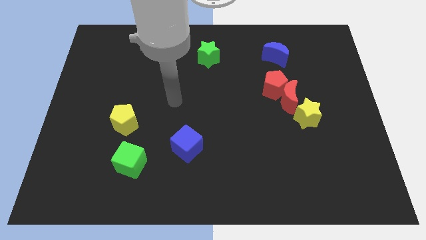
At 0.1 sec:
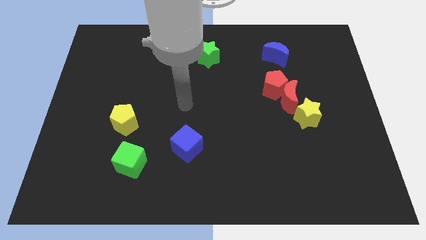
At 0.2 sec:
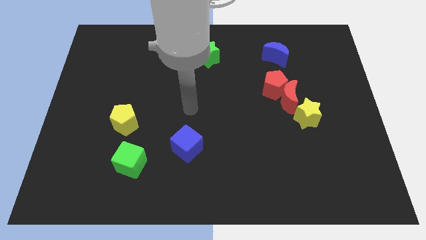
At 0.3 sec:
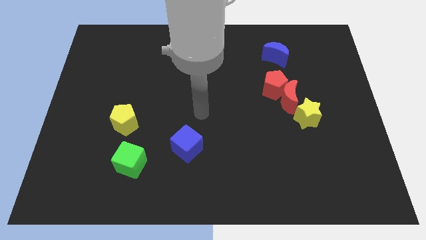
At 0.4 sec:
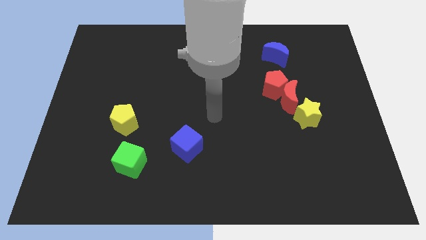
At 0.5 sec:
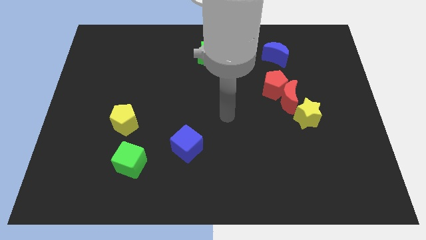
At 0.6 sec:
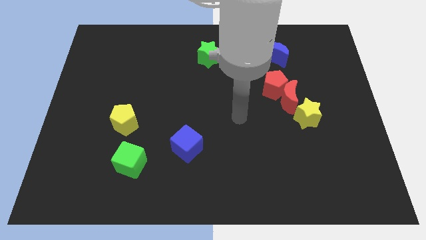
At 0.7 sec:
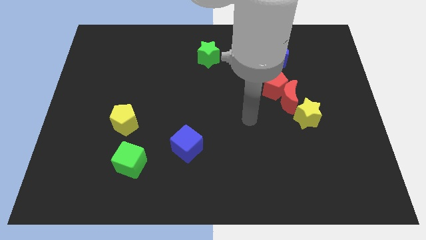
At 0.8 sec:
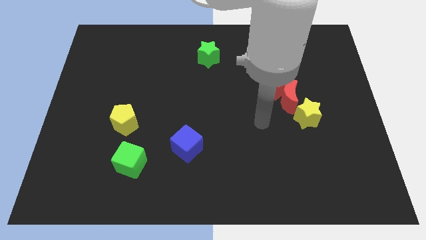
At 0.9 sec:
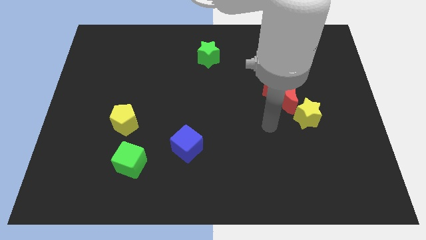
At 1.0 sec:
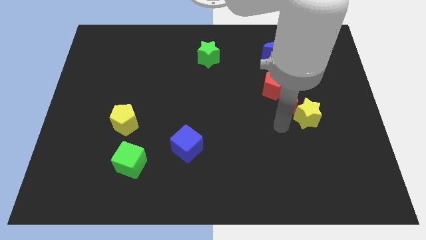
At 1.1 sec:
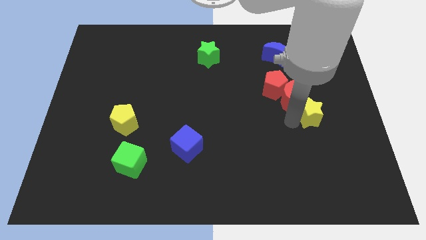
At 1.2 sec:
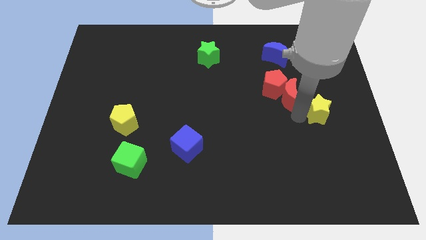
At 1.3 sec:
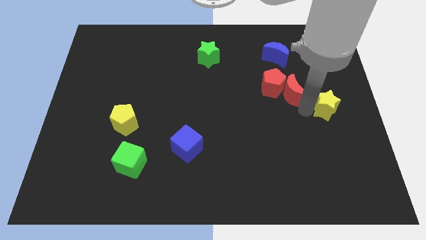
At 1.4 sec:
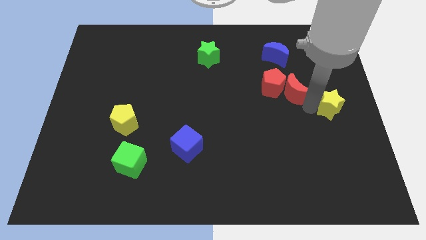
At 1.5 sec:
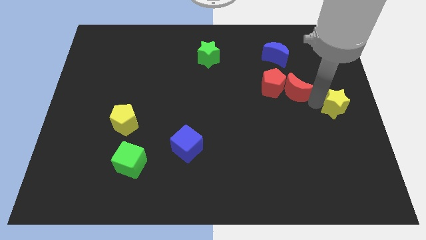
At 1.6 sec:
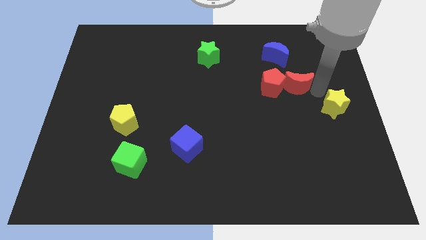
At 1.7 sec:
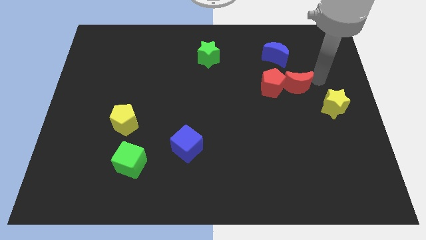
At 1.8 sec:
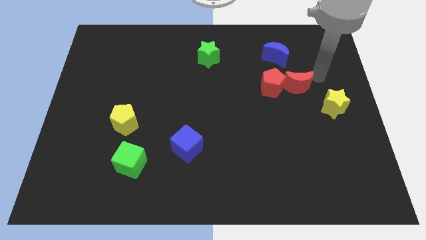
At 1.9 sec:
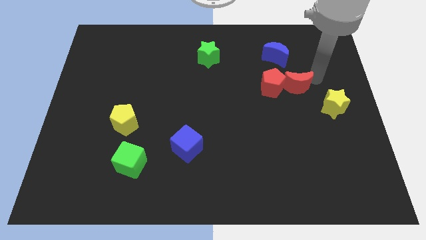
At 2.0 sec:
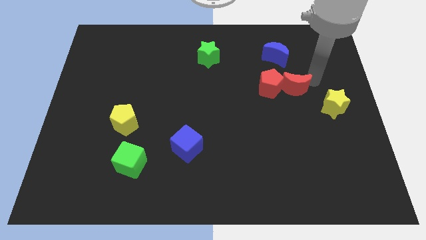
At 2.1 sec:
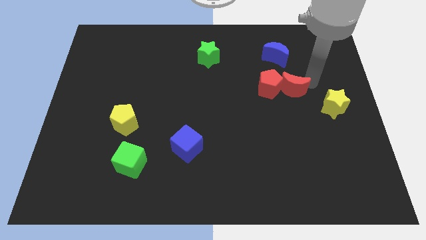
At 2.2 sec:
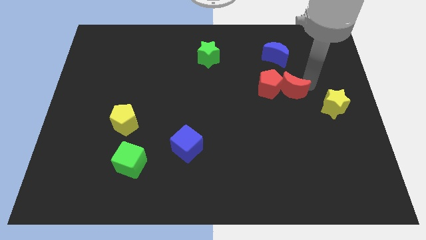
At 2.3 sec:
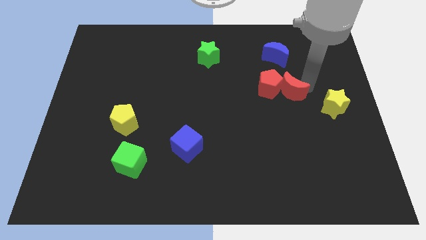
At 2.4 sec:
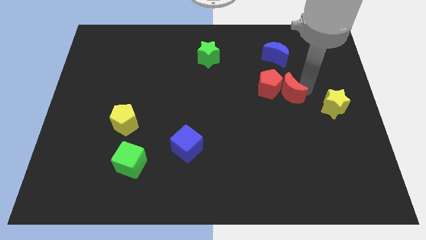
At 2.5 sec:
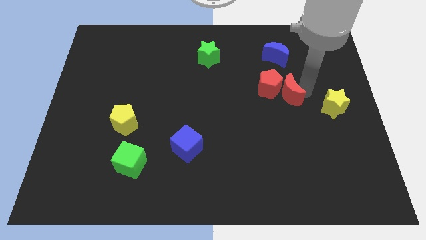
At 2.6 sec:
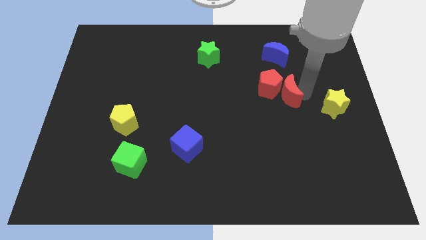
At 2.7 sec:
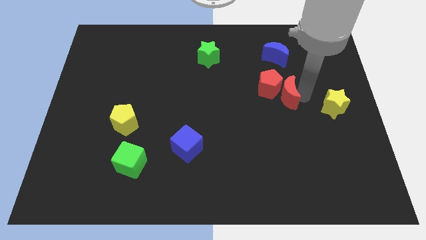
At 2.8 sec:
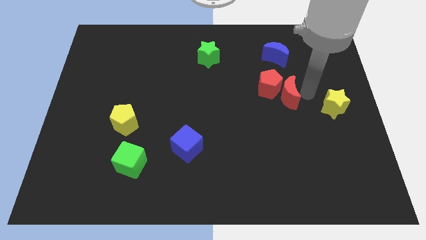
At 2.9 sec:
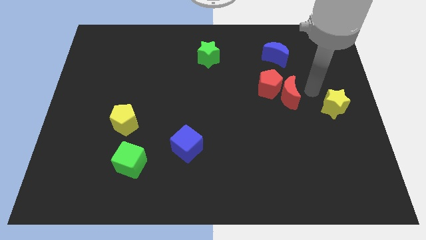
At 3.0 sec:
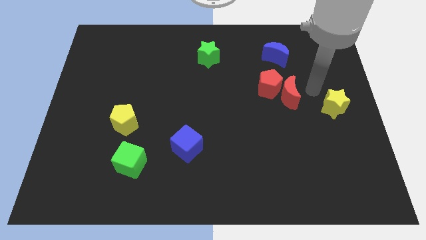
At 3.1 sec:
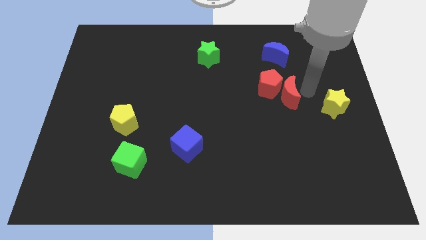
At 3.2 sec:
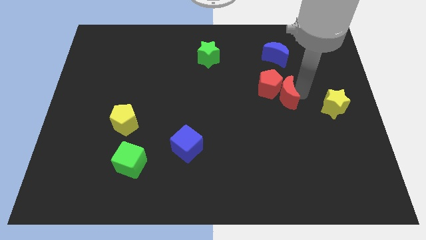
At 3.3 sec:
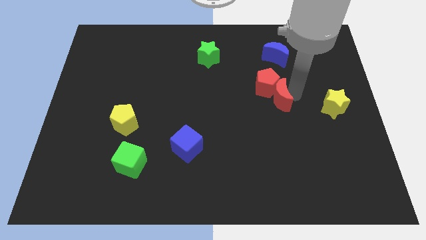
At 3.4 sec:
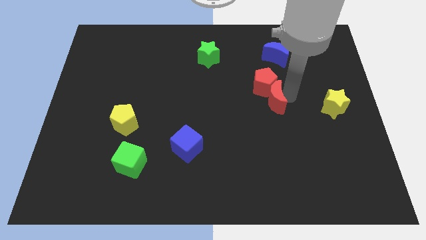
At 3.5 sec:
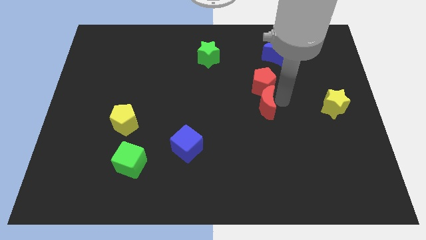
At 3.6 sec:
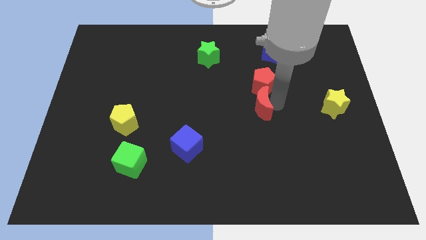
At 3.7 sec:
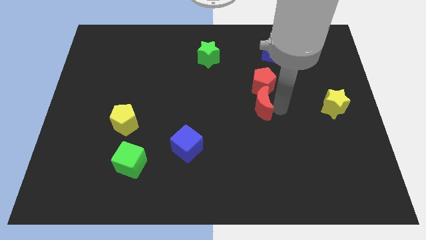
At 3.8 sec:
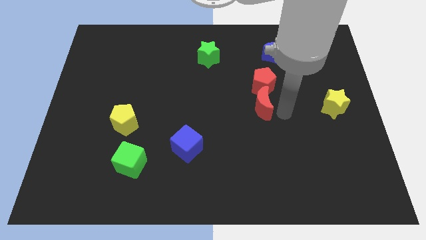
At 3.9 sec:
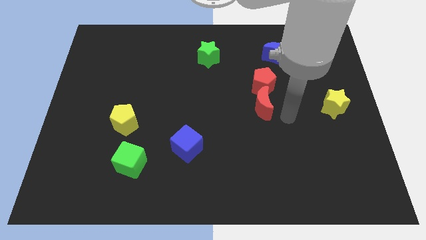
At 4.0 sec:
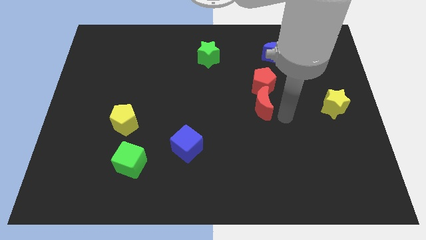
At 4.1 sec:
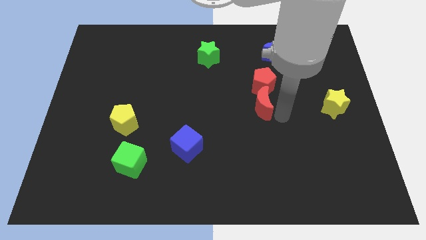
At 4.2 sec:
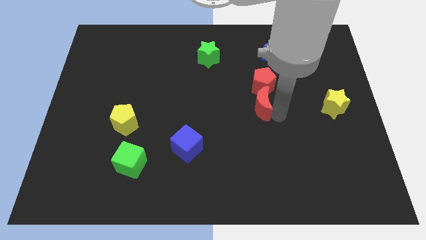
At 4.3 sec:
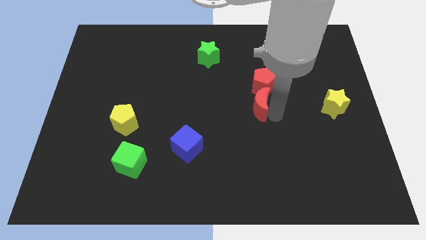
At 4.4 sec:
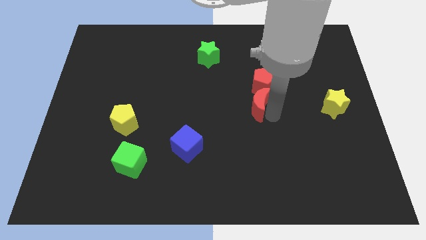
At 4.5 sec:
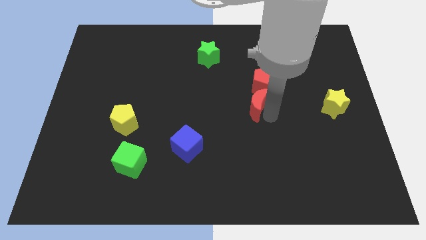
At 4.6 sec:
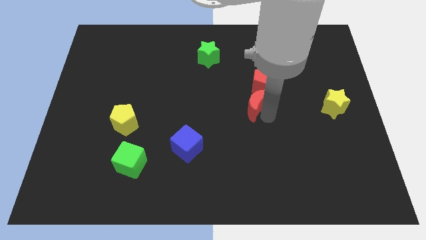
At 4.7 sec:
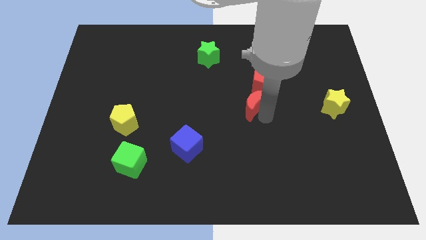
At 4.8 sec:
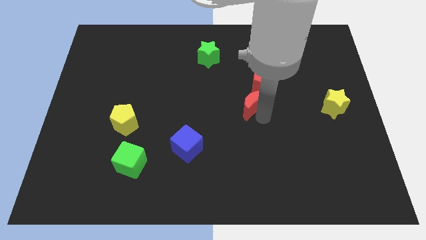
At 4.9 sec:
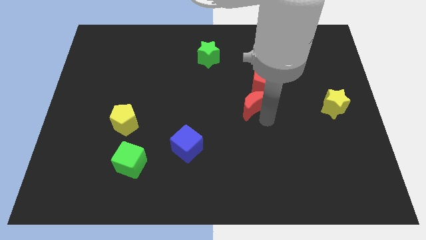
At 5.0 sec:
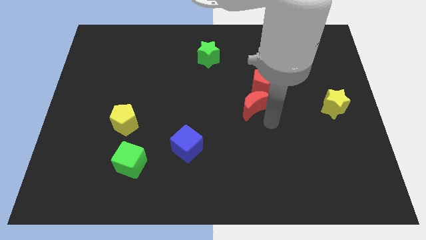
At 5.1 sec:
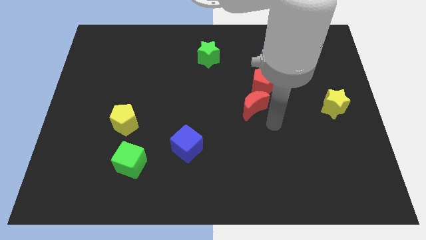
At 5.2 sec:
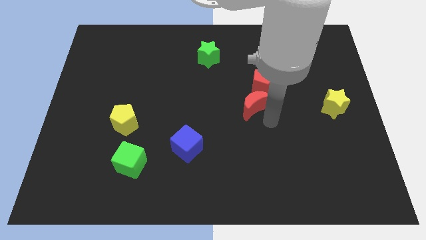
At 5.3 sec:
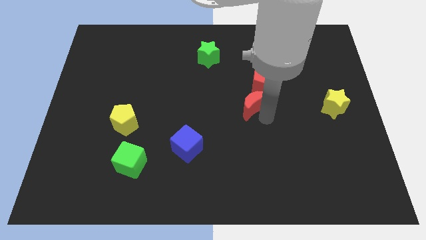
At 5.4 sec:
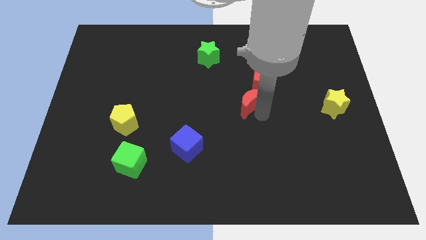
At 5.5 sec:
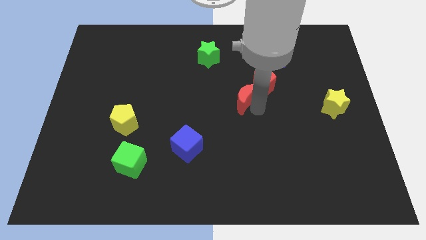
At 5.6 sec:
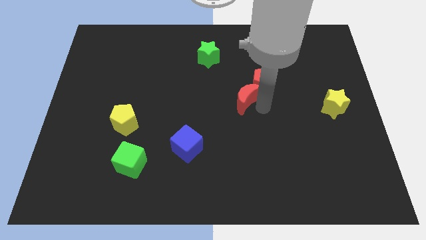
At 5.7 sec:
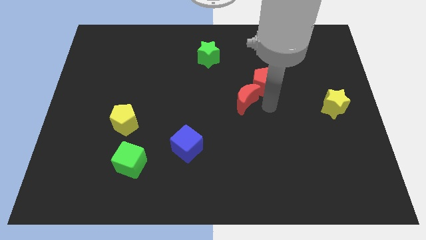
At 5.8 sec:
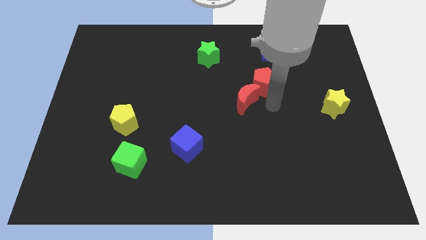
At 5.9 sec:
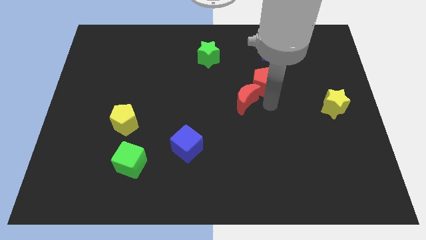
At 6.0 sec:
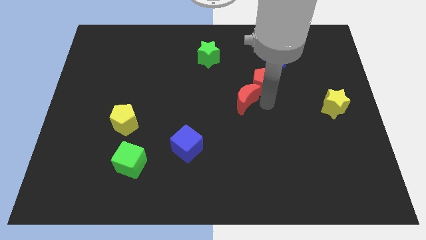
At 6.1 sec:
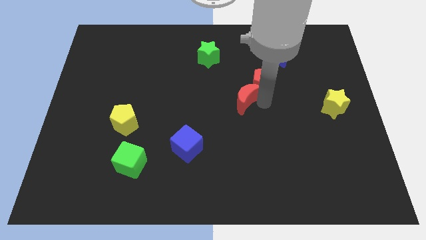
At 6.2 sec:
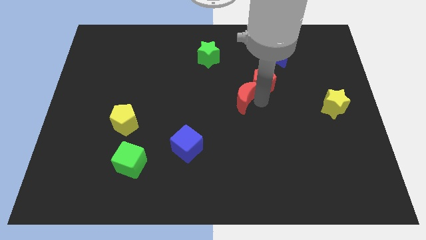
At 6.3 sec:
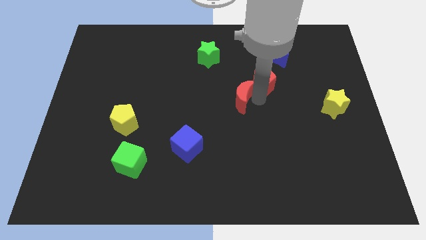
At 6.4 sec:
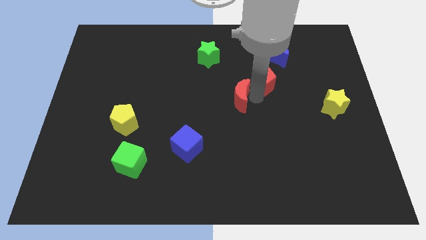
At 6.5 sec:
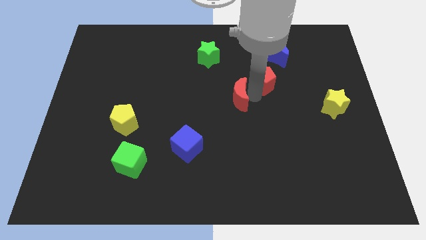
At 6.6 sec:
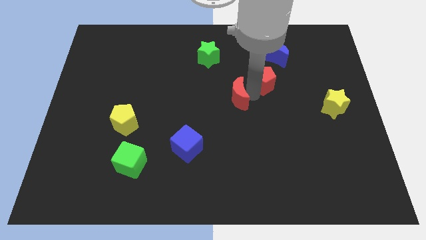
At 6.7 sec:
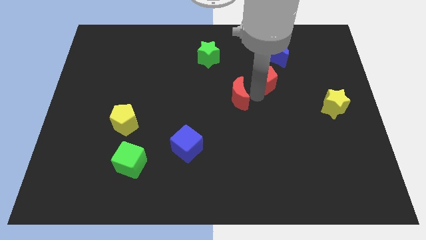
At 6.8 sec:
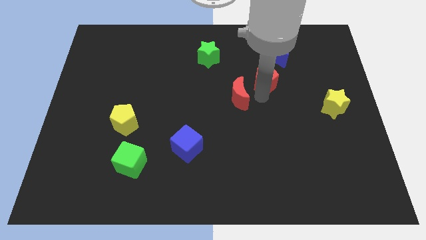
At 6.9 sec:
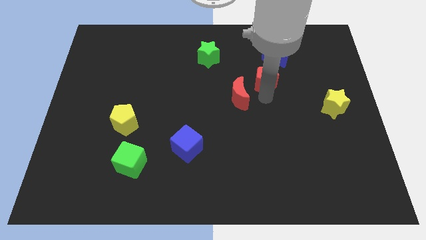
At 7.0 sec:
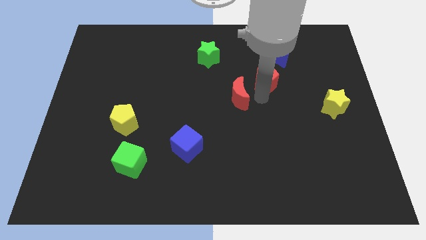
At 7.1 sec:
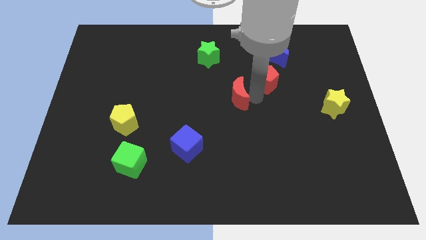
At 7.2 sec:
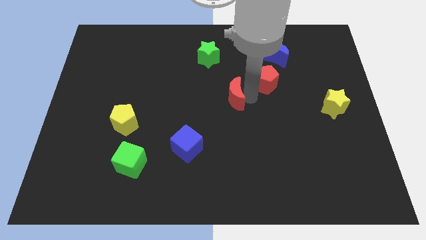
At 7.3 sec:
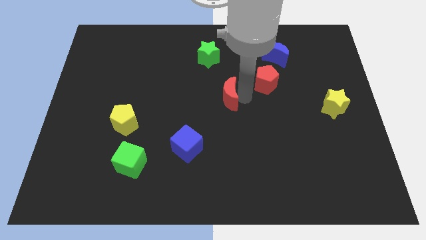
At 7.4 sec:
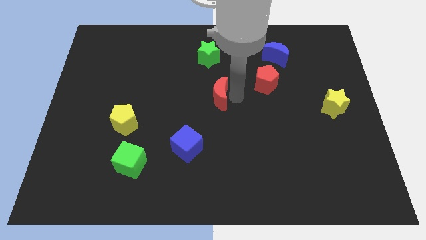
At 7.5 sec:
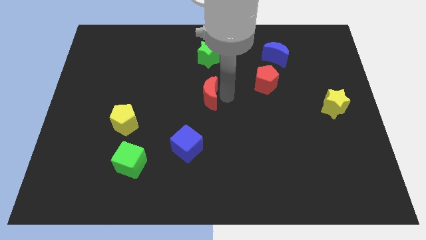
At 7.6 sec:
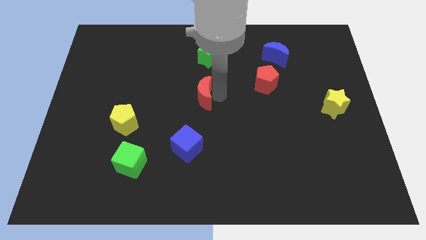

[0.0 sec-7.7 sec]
slide the red moon left

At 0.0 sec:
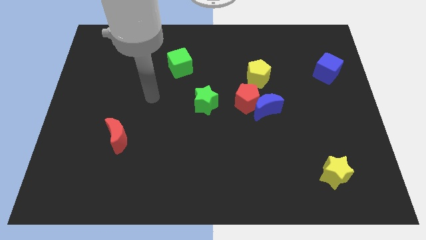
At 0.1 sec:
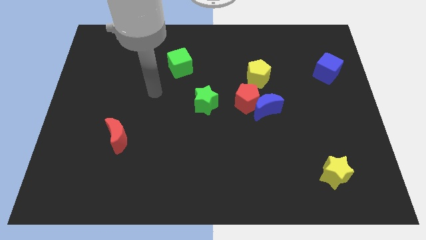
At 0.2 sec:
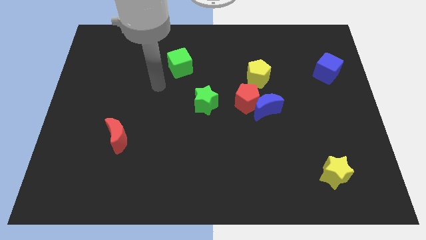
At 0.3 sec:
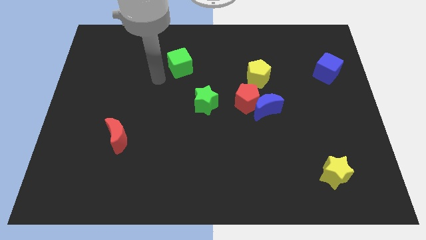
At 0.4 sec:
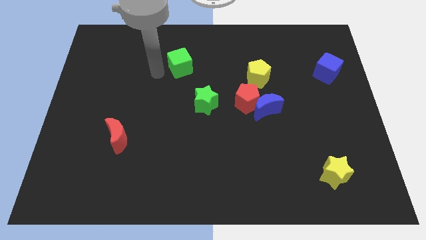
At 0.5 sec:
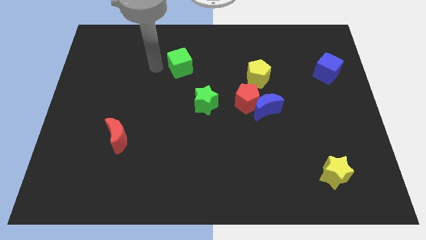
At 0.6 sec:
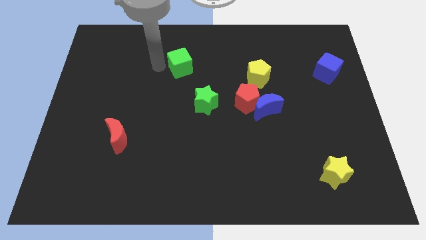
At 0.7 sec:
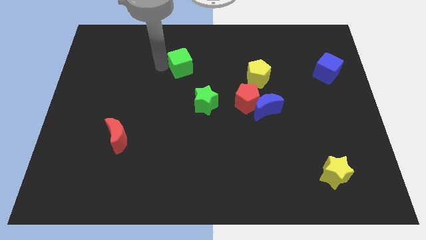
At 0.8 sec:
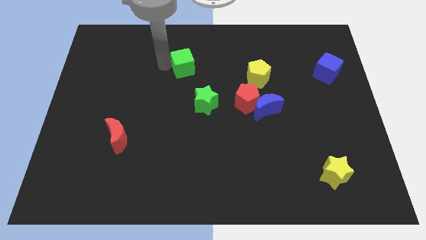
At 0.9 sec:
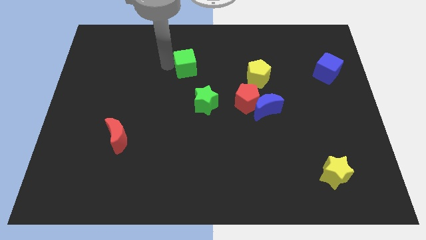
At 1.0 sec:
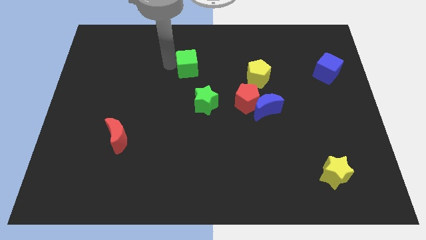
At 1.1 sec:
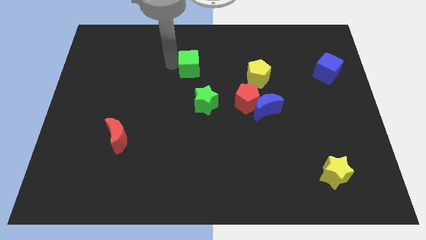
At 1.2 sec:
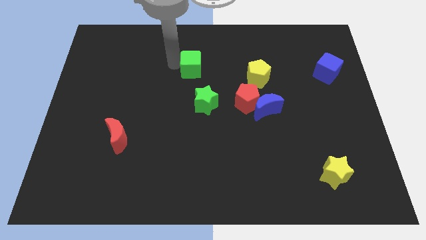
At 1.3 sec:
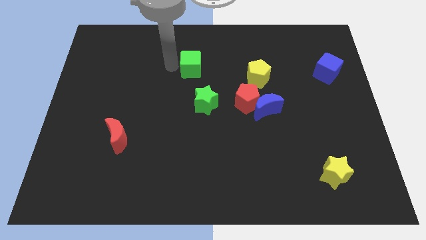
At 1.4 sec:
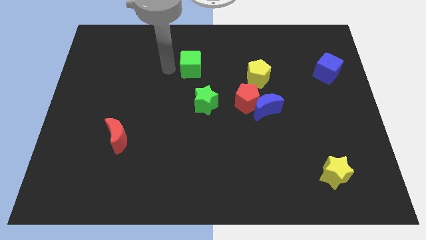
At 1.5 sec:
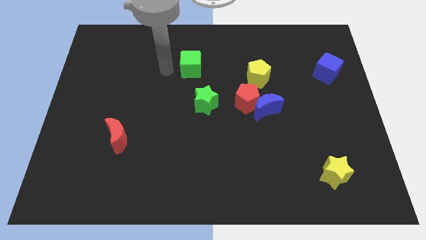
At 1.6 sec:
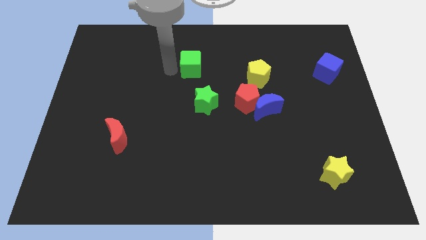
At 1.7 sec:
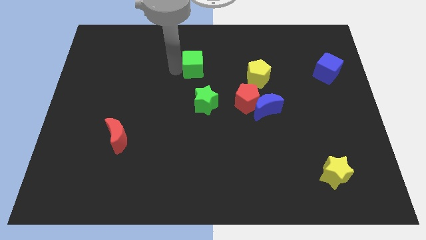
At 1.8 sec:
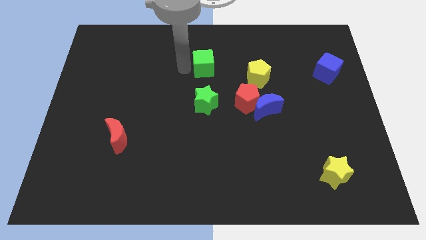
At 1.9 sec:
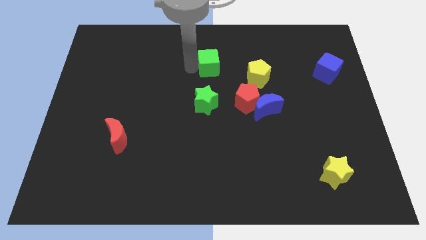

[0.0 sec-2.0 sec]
slide the green cube to the right somewhat
